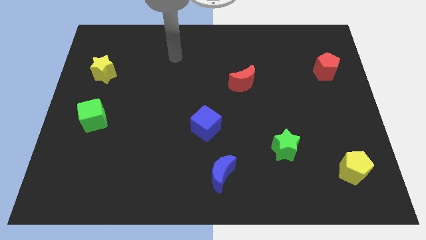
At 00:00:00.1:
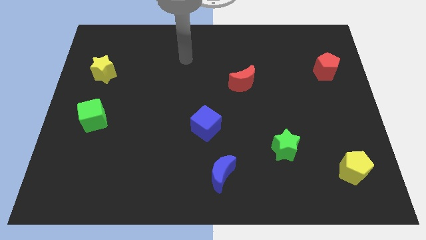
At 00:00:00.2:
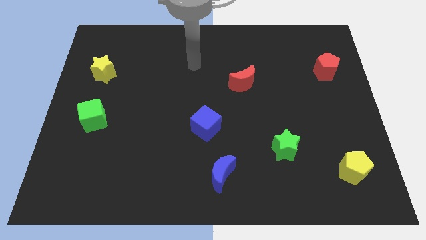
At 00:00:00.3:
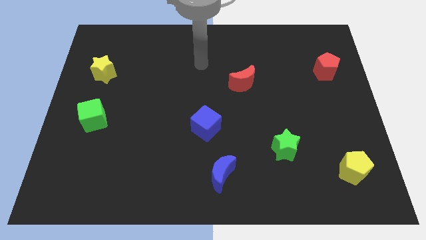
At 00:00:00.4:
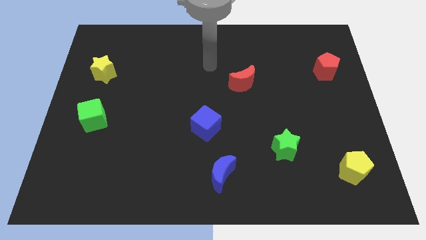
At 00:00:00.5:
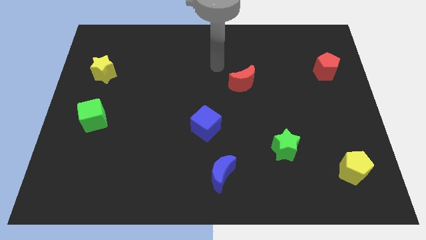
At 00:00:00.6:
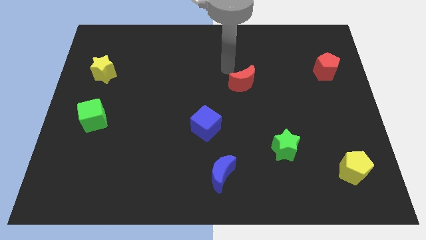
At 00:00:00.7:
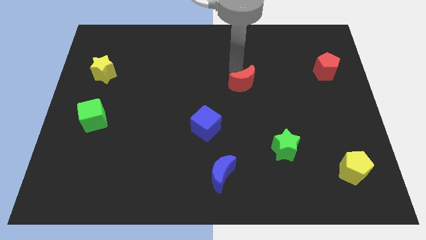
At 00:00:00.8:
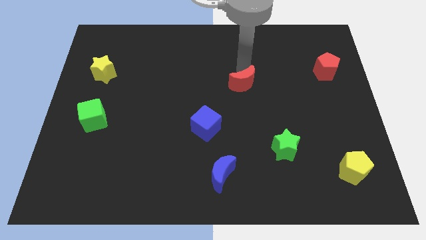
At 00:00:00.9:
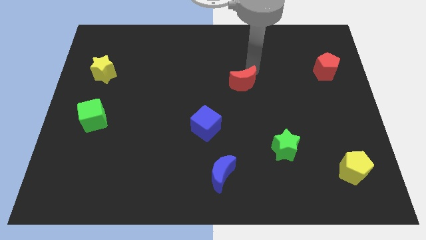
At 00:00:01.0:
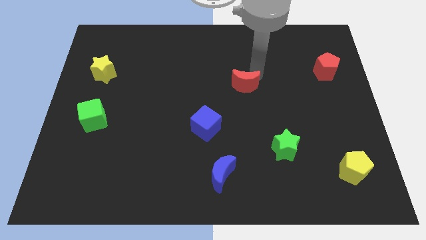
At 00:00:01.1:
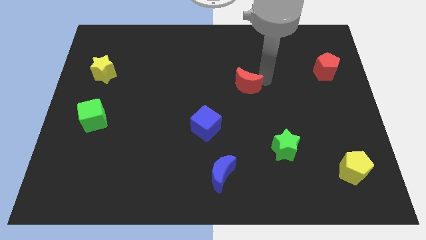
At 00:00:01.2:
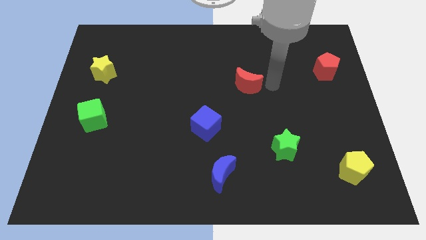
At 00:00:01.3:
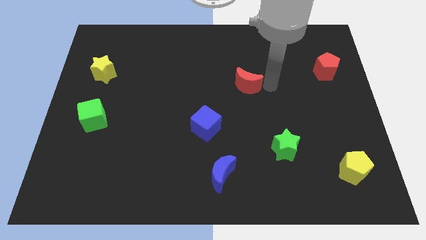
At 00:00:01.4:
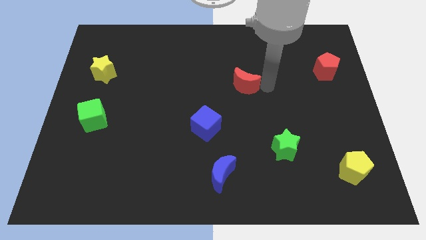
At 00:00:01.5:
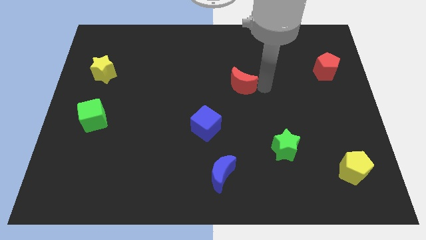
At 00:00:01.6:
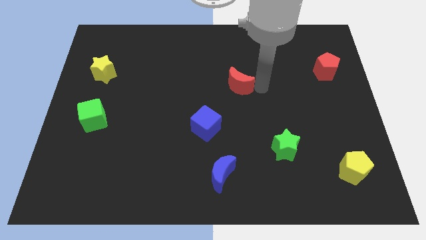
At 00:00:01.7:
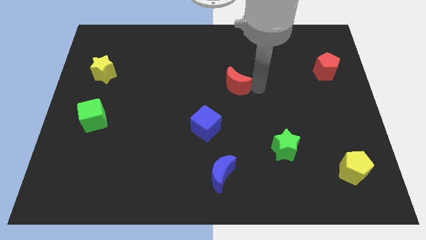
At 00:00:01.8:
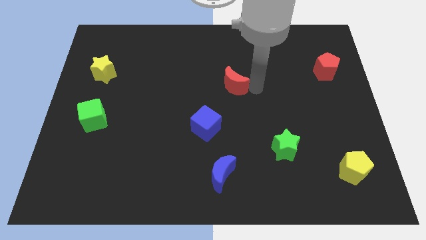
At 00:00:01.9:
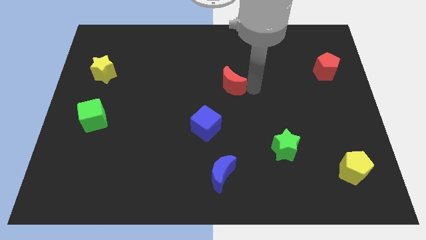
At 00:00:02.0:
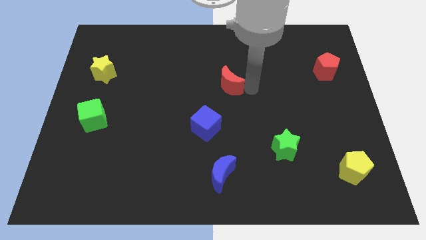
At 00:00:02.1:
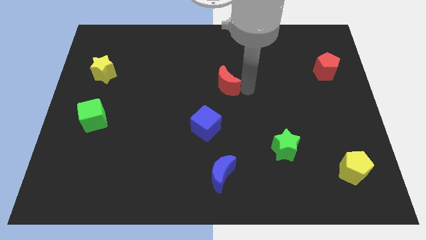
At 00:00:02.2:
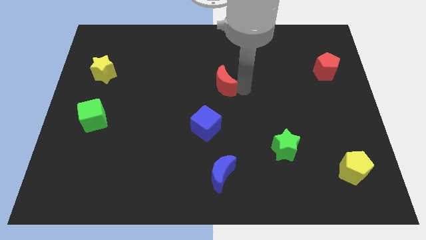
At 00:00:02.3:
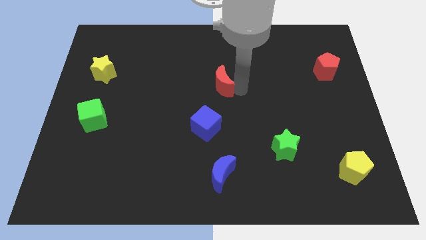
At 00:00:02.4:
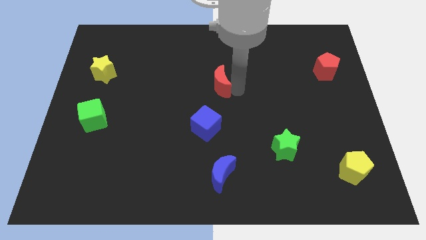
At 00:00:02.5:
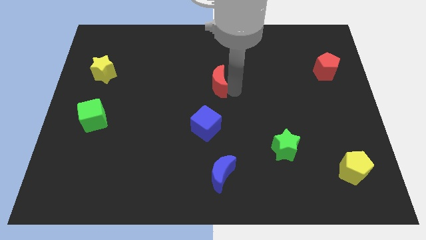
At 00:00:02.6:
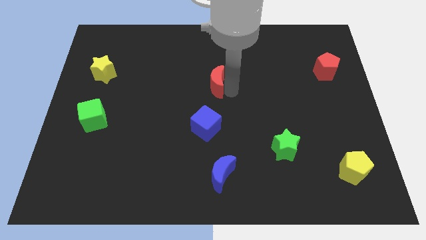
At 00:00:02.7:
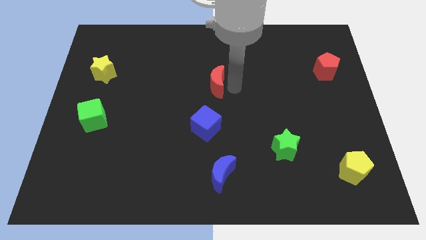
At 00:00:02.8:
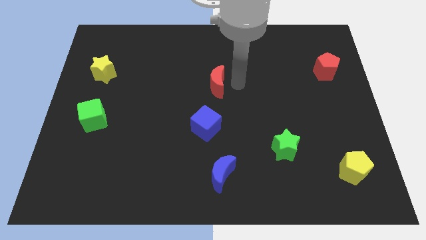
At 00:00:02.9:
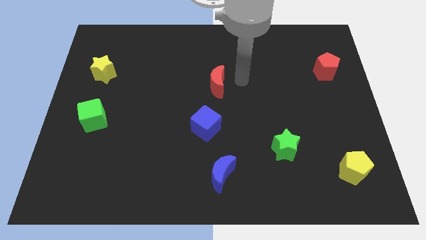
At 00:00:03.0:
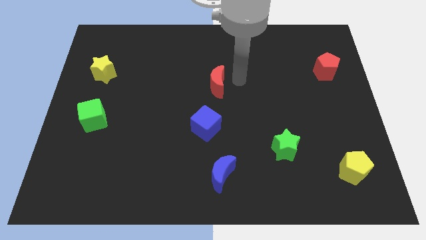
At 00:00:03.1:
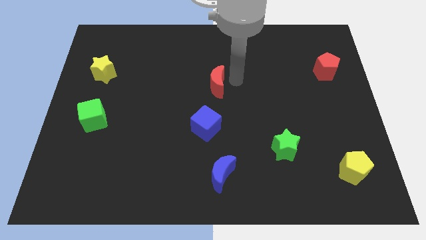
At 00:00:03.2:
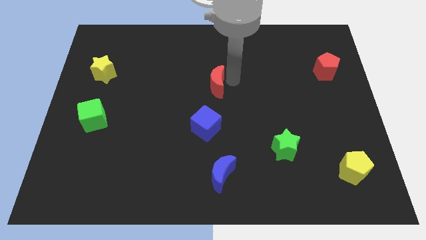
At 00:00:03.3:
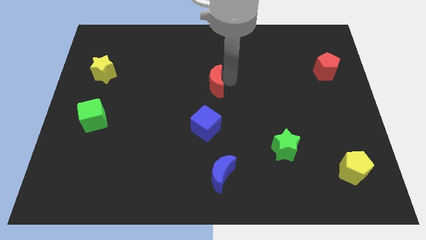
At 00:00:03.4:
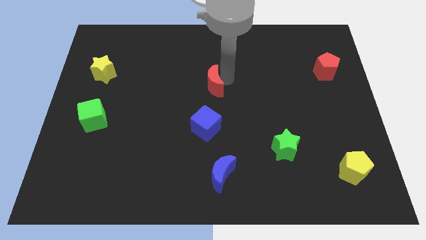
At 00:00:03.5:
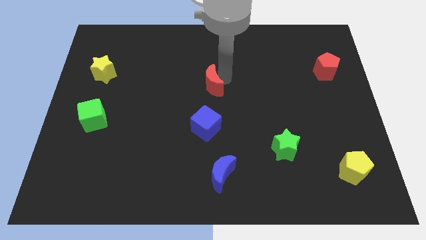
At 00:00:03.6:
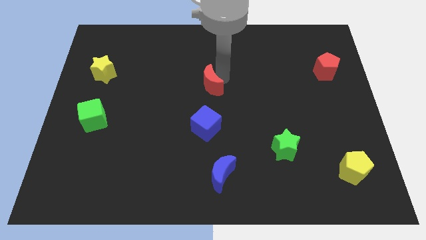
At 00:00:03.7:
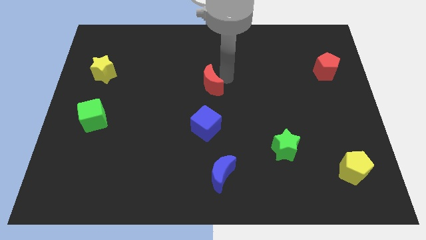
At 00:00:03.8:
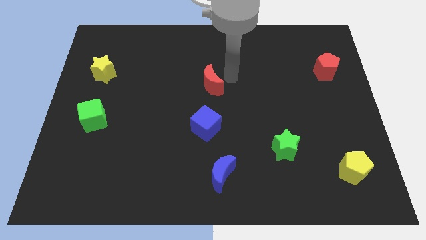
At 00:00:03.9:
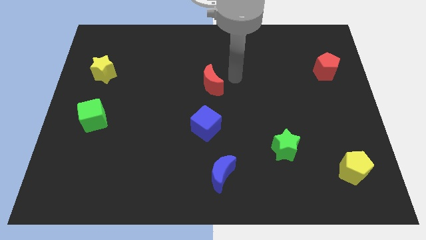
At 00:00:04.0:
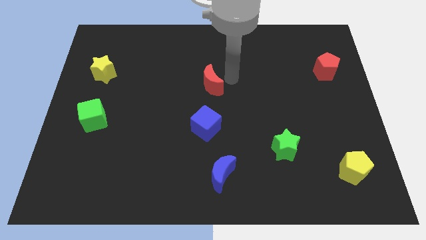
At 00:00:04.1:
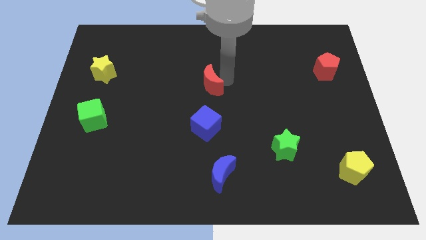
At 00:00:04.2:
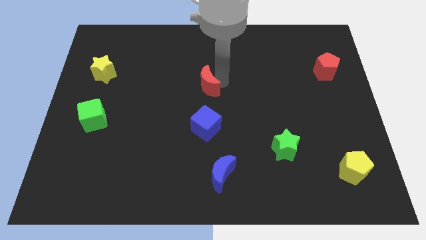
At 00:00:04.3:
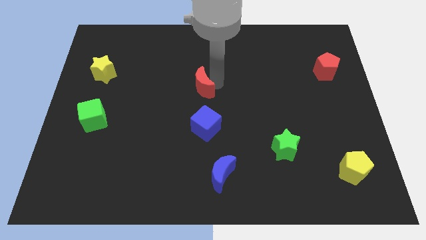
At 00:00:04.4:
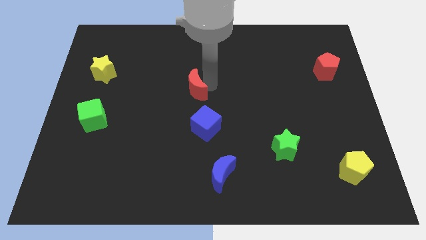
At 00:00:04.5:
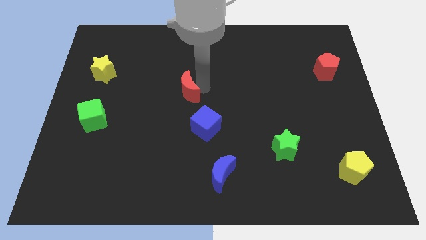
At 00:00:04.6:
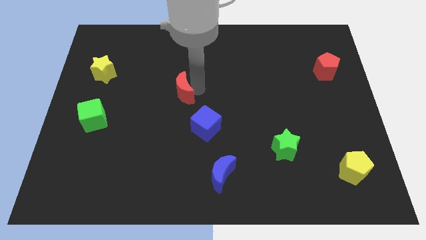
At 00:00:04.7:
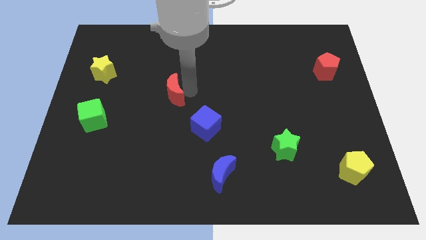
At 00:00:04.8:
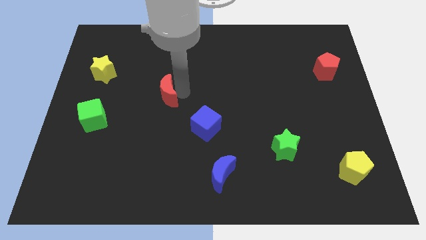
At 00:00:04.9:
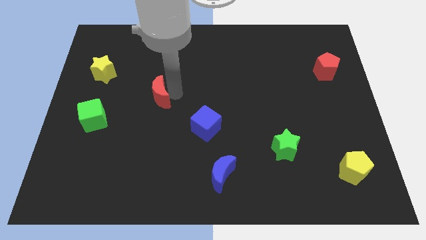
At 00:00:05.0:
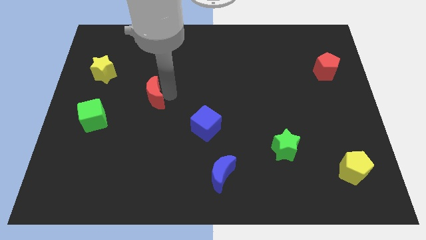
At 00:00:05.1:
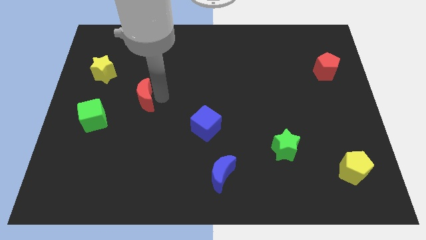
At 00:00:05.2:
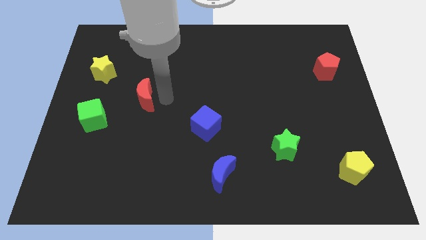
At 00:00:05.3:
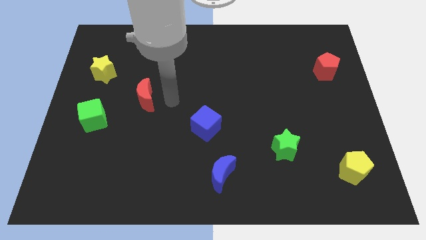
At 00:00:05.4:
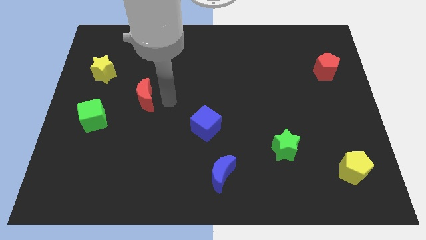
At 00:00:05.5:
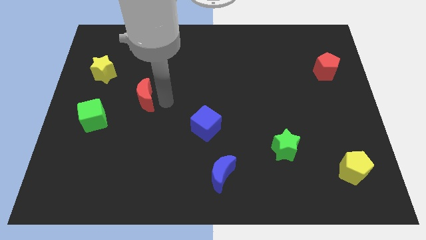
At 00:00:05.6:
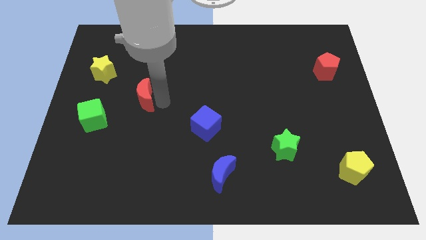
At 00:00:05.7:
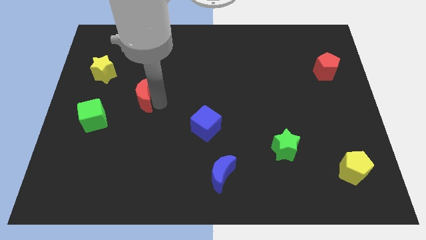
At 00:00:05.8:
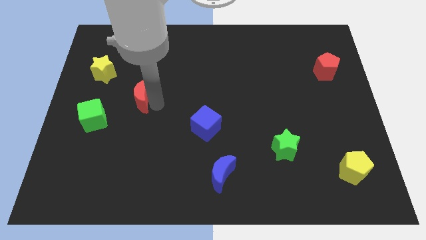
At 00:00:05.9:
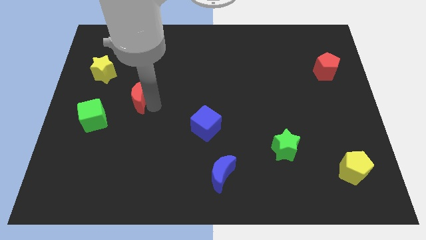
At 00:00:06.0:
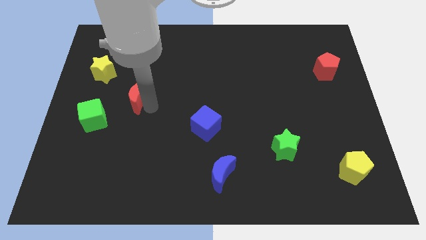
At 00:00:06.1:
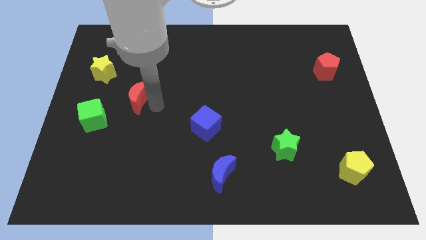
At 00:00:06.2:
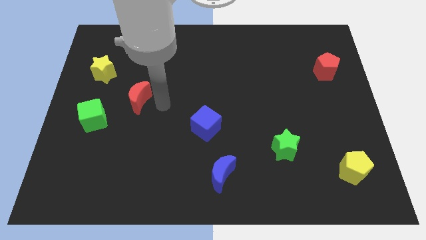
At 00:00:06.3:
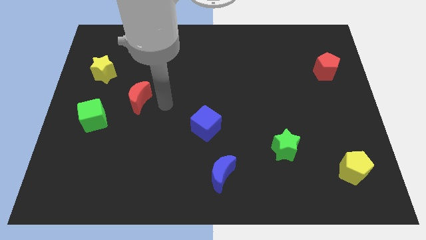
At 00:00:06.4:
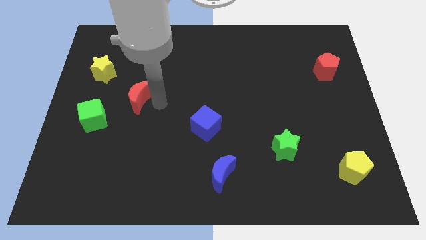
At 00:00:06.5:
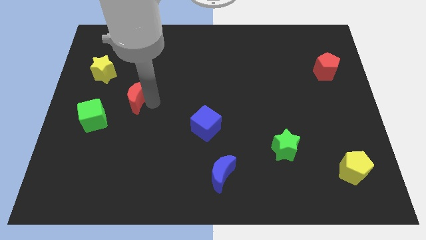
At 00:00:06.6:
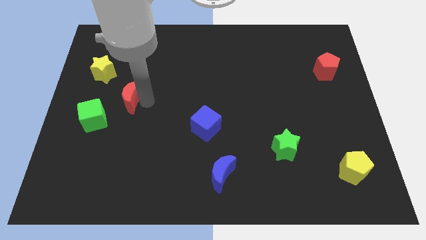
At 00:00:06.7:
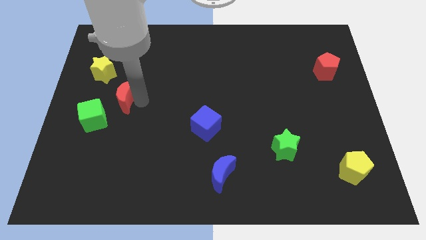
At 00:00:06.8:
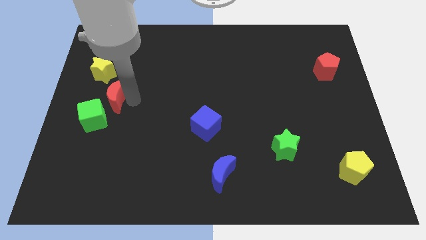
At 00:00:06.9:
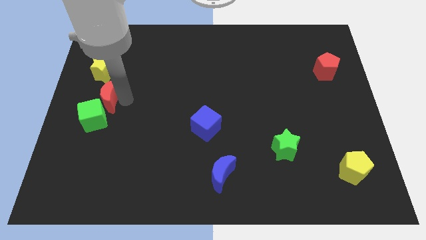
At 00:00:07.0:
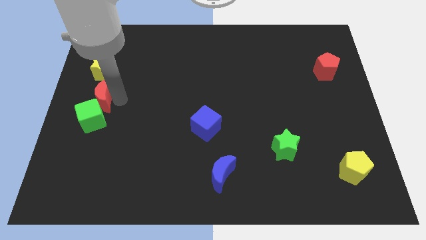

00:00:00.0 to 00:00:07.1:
move the red moon to the center left
